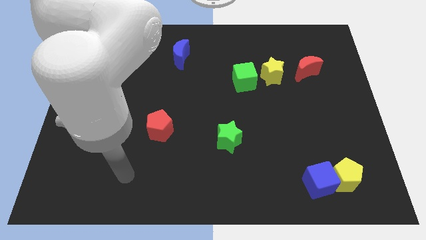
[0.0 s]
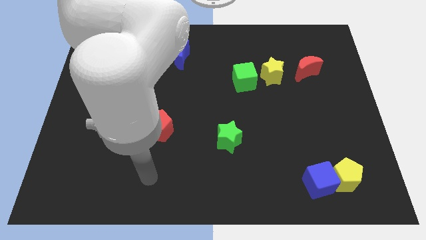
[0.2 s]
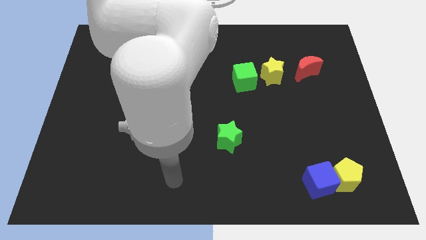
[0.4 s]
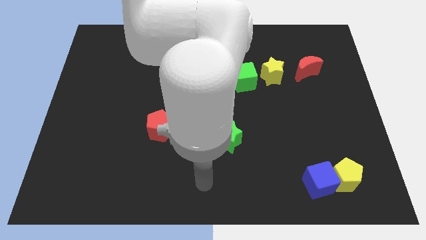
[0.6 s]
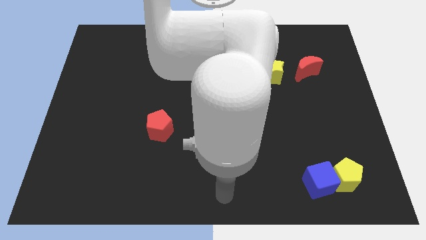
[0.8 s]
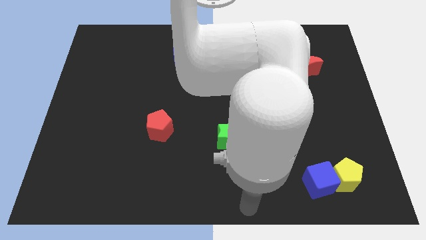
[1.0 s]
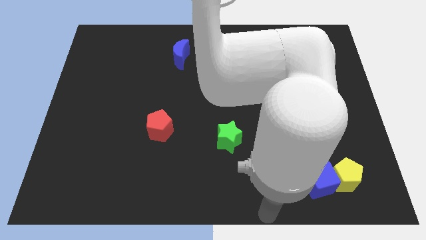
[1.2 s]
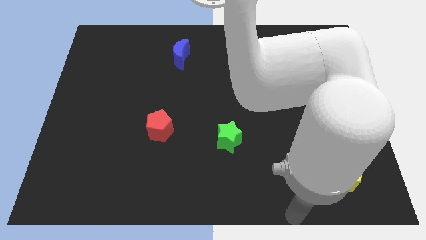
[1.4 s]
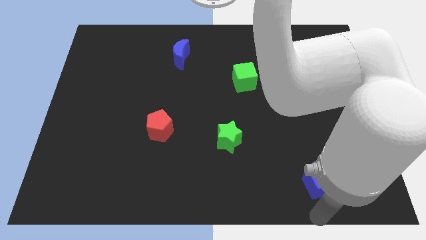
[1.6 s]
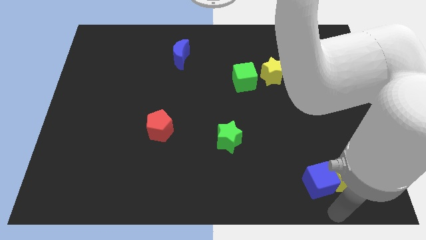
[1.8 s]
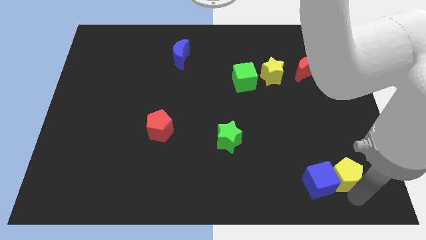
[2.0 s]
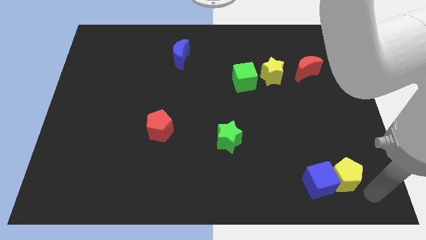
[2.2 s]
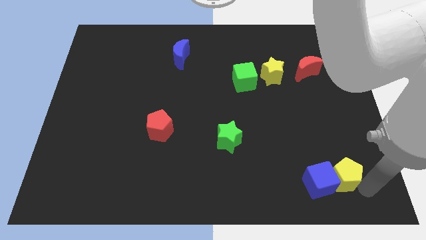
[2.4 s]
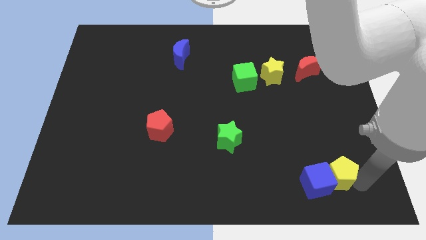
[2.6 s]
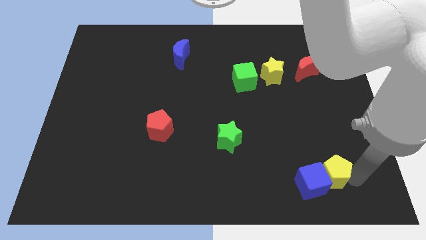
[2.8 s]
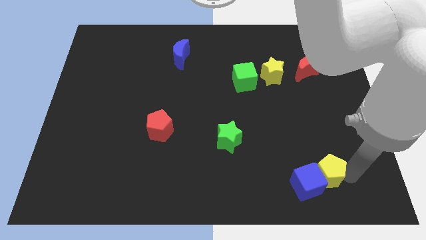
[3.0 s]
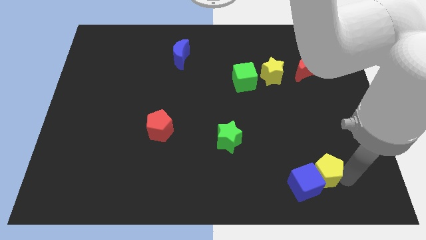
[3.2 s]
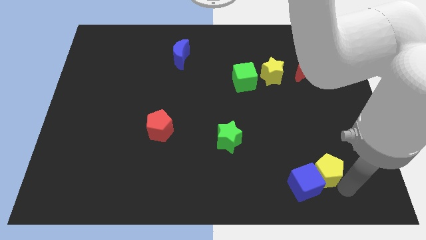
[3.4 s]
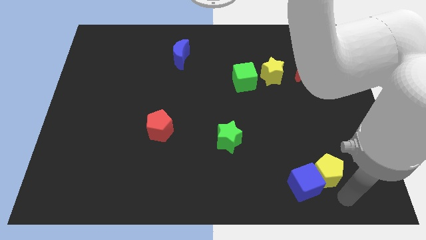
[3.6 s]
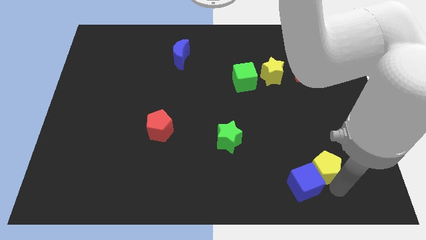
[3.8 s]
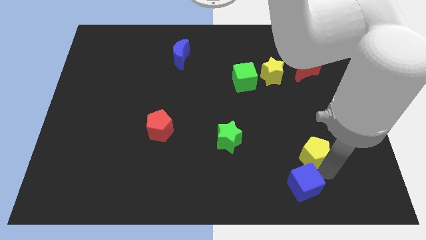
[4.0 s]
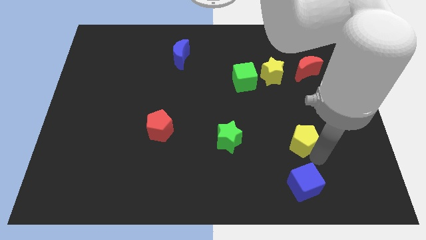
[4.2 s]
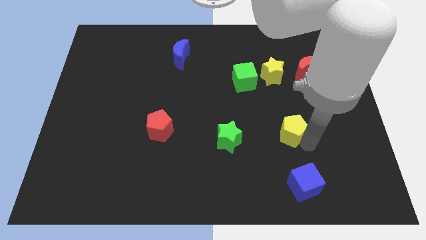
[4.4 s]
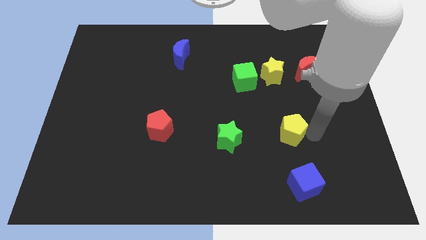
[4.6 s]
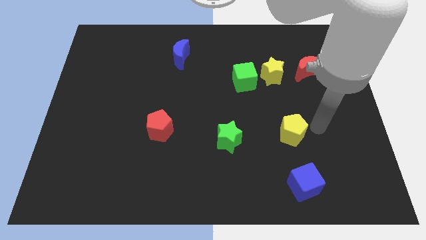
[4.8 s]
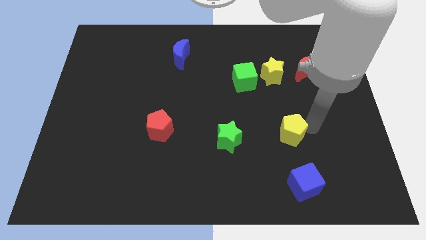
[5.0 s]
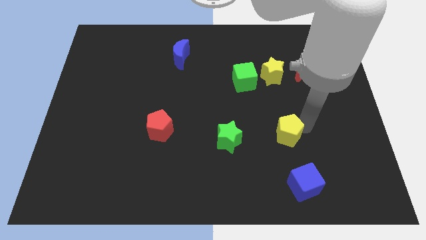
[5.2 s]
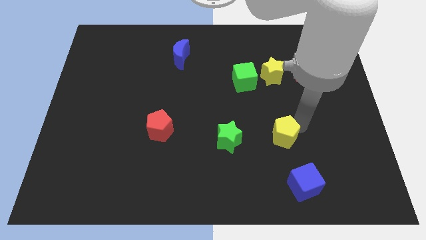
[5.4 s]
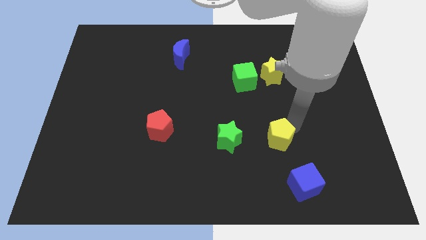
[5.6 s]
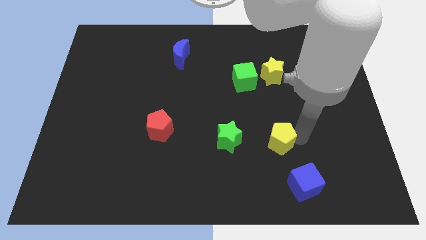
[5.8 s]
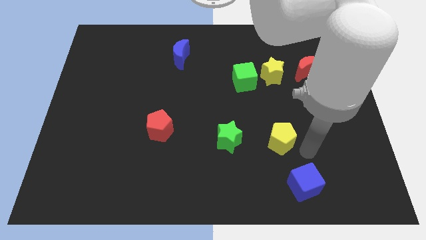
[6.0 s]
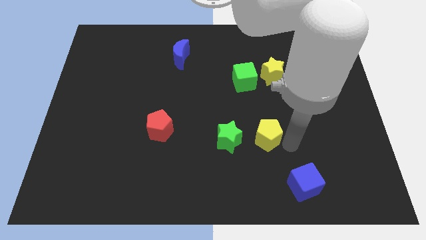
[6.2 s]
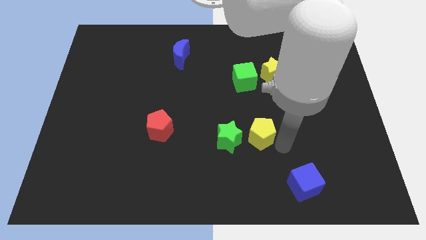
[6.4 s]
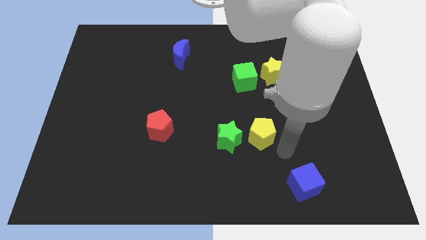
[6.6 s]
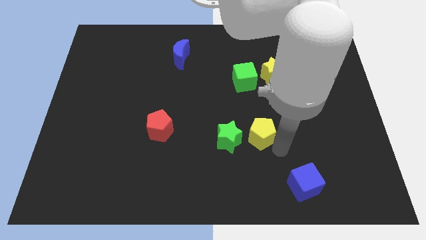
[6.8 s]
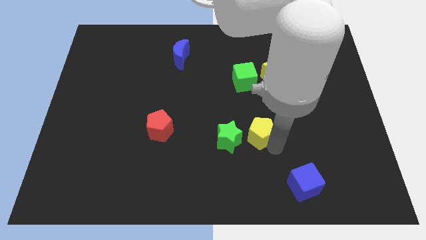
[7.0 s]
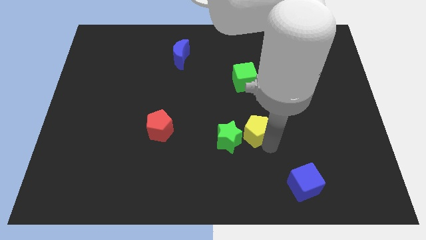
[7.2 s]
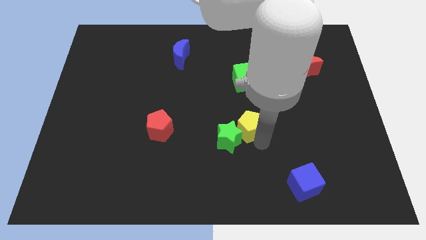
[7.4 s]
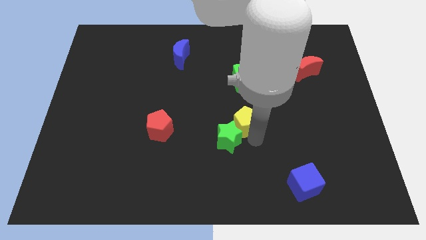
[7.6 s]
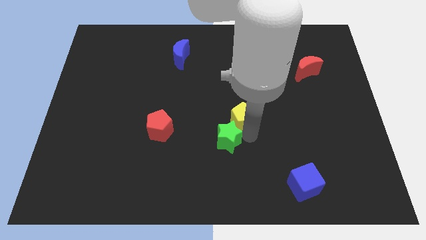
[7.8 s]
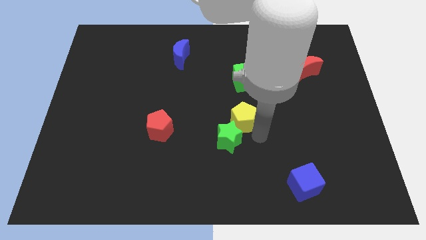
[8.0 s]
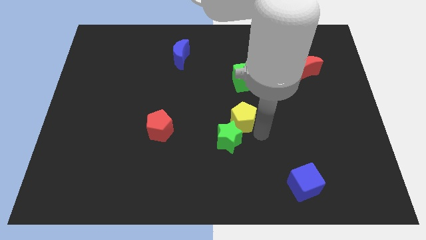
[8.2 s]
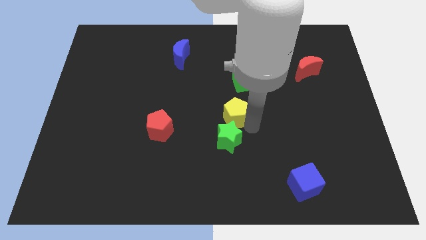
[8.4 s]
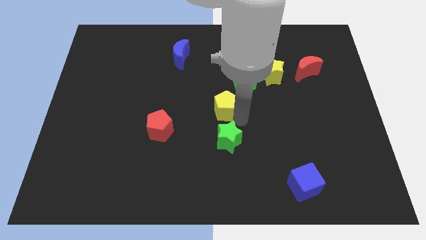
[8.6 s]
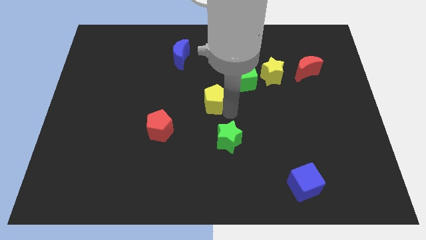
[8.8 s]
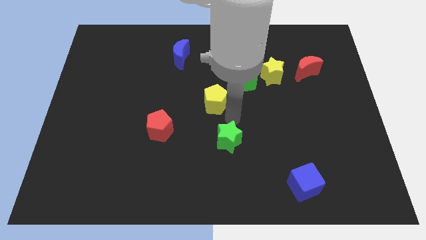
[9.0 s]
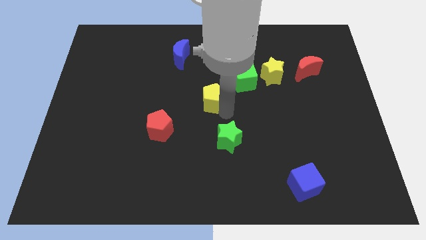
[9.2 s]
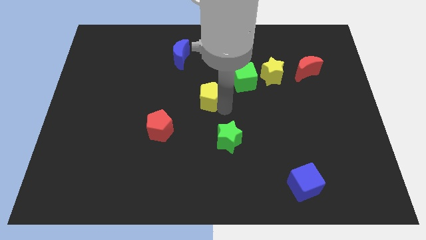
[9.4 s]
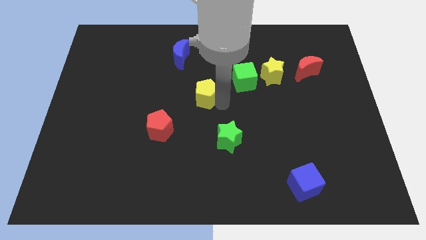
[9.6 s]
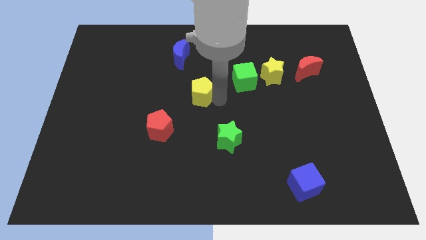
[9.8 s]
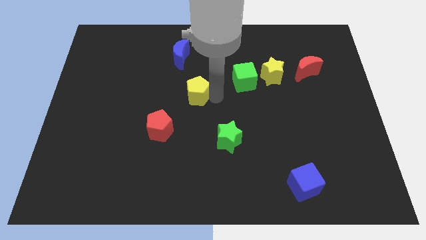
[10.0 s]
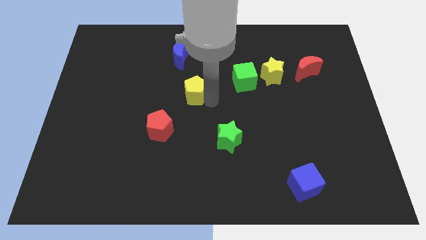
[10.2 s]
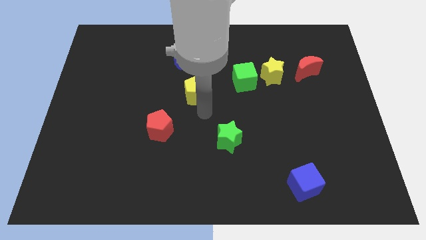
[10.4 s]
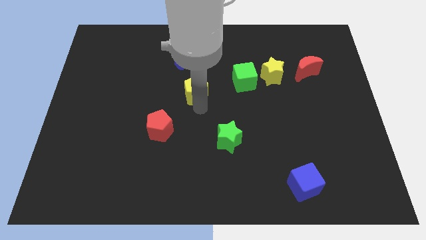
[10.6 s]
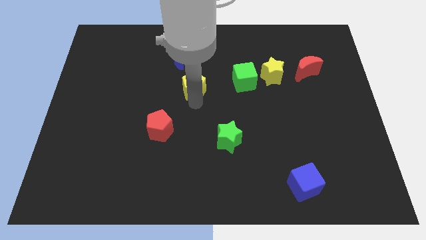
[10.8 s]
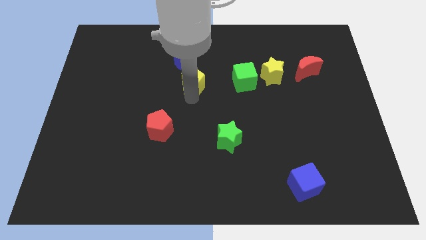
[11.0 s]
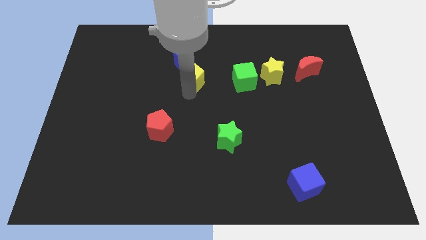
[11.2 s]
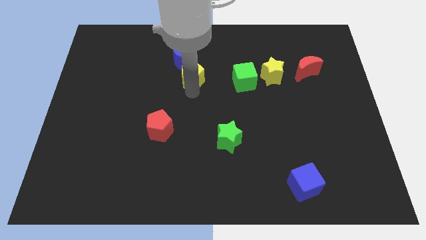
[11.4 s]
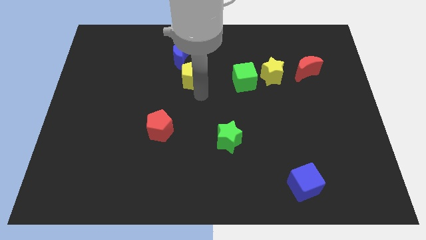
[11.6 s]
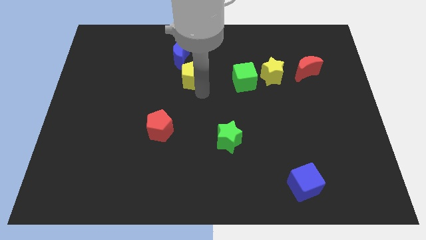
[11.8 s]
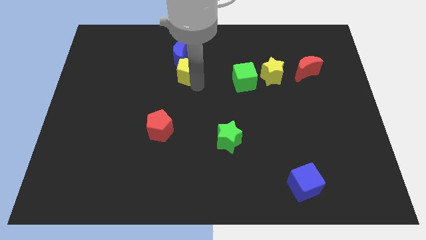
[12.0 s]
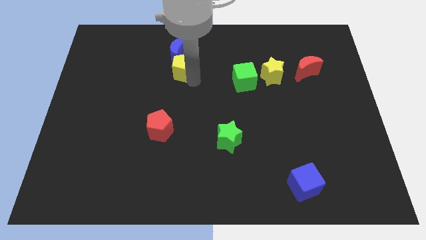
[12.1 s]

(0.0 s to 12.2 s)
push the yellow pentagon close to the blue moon
